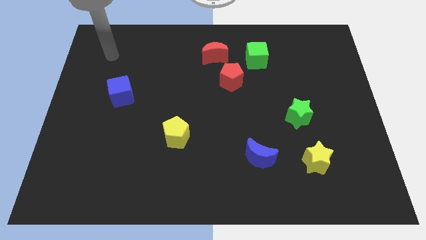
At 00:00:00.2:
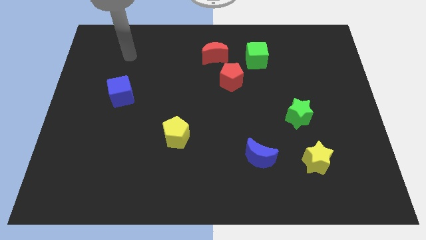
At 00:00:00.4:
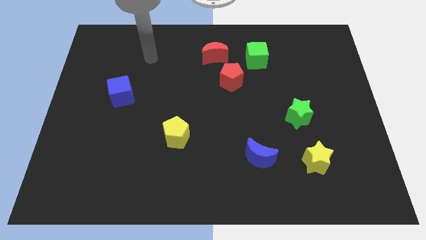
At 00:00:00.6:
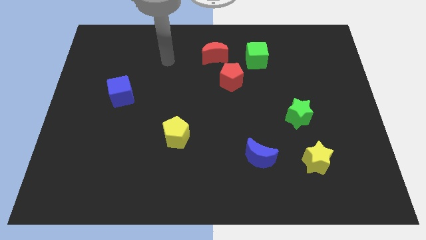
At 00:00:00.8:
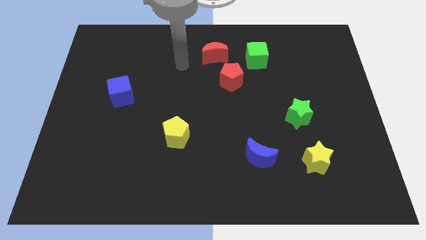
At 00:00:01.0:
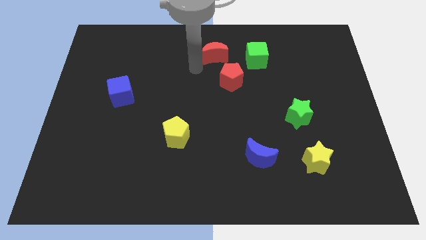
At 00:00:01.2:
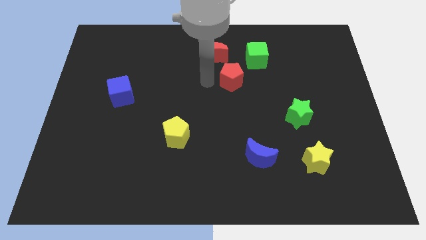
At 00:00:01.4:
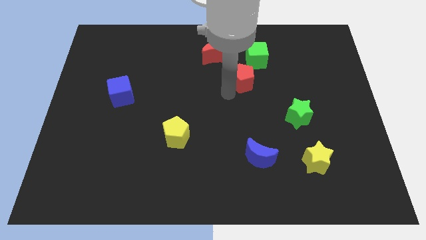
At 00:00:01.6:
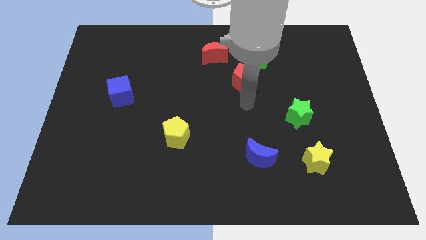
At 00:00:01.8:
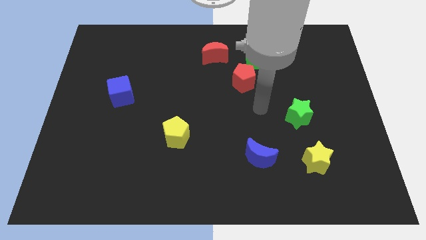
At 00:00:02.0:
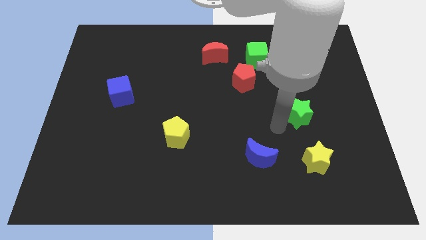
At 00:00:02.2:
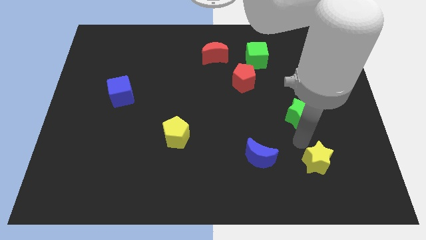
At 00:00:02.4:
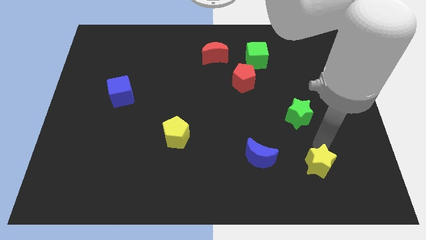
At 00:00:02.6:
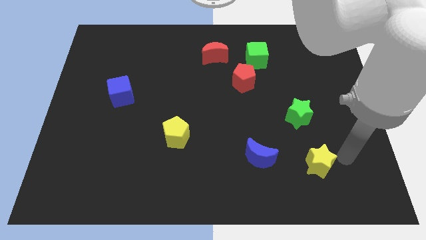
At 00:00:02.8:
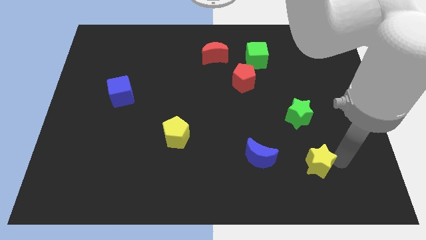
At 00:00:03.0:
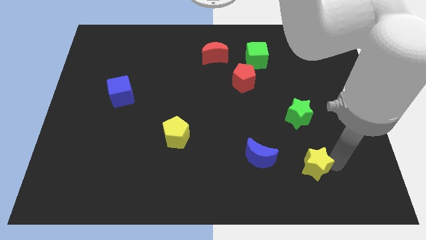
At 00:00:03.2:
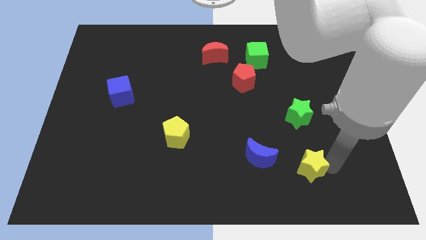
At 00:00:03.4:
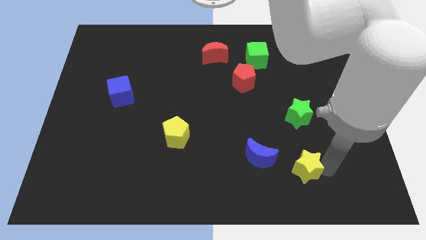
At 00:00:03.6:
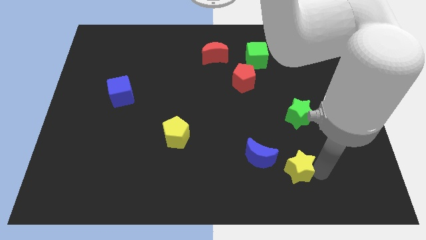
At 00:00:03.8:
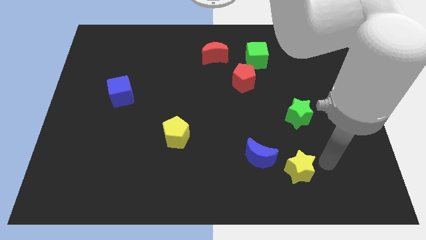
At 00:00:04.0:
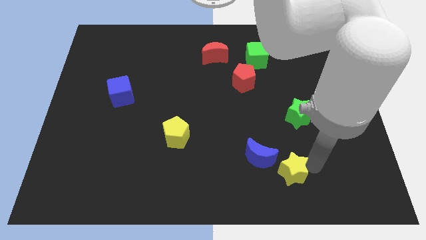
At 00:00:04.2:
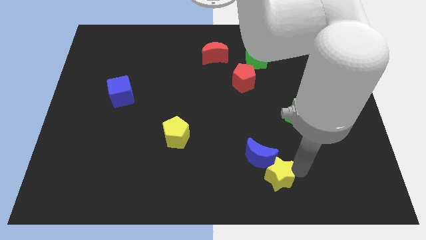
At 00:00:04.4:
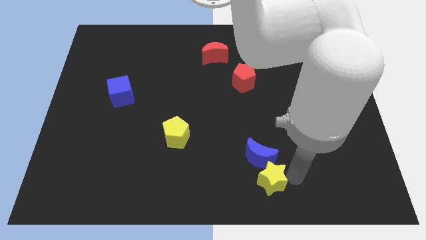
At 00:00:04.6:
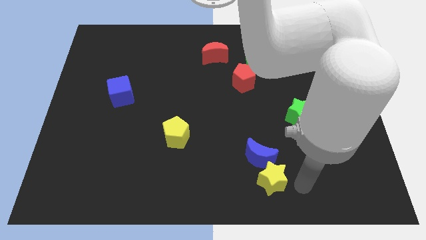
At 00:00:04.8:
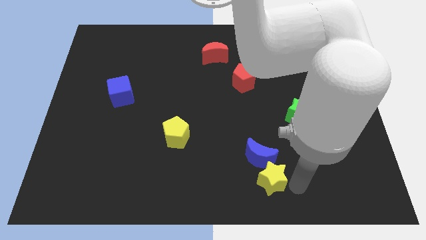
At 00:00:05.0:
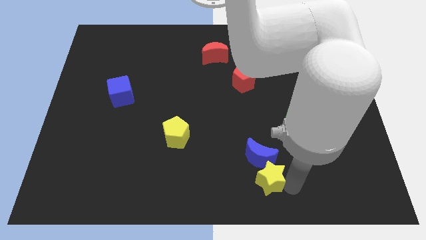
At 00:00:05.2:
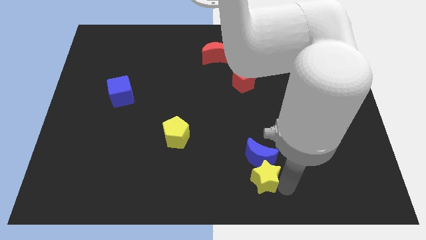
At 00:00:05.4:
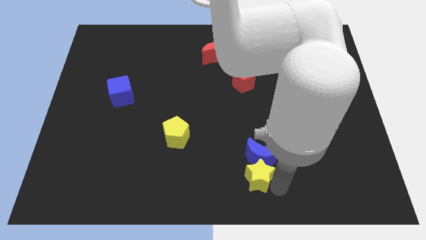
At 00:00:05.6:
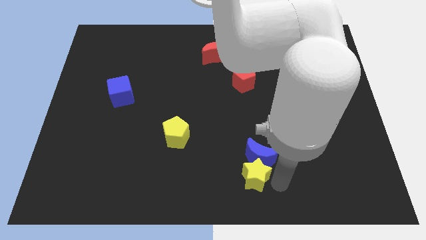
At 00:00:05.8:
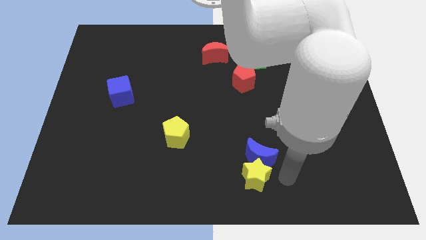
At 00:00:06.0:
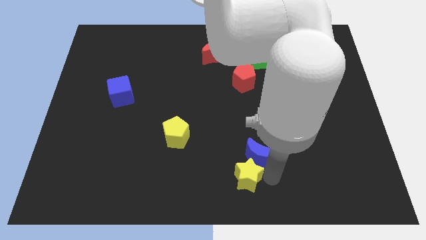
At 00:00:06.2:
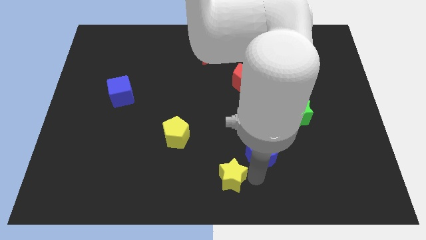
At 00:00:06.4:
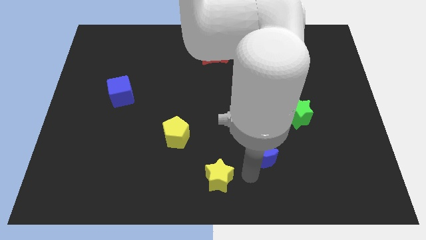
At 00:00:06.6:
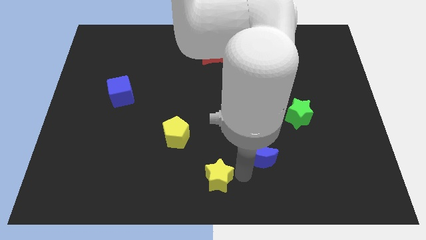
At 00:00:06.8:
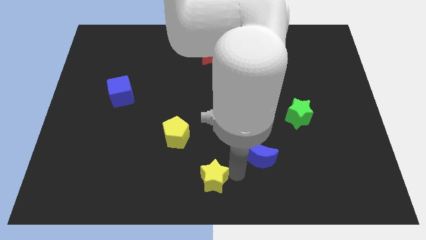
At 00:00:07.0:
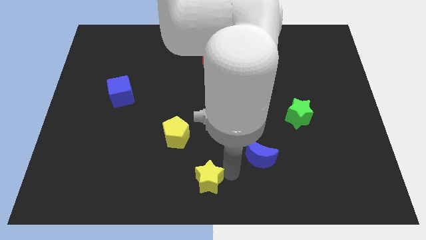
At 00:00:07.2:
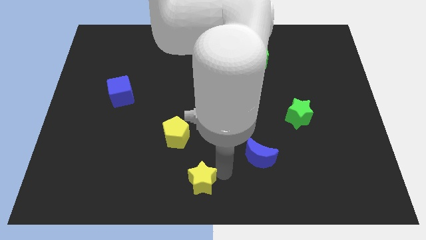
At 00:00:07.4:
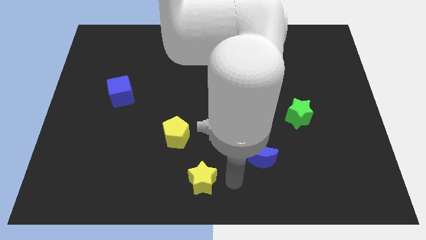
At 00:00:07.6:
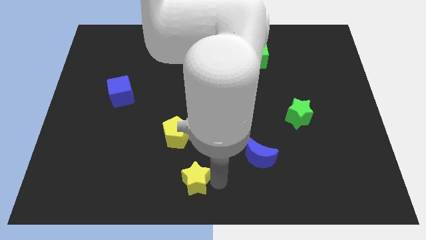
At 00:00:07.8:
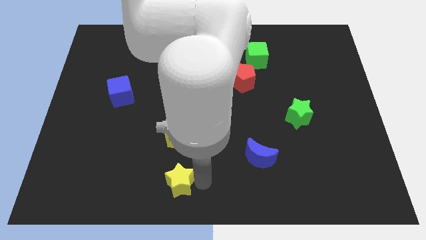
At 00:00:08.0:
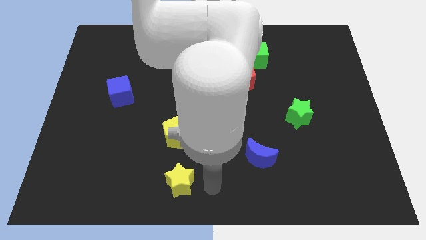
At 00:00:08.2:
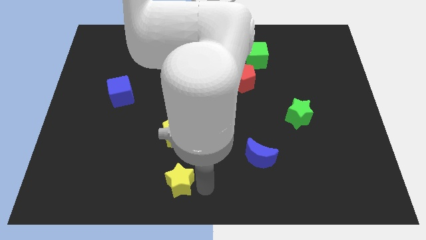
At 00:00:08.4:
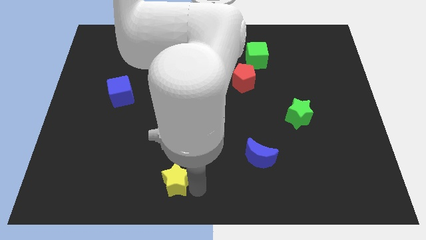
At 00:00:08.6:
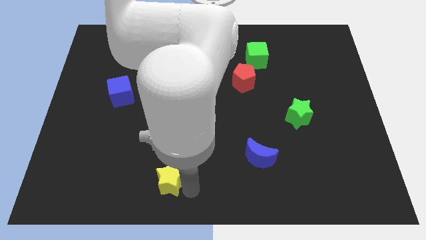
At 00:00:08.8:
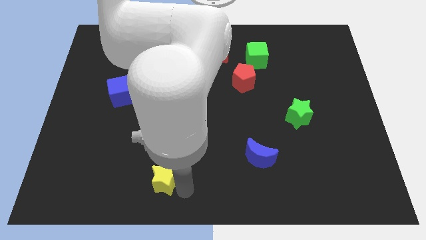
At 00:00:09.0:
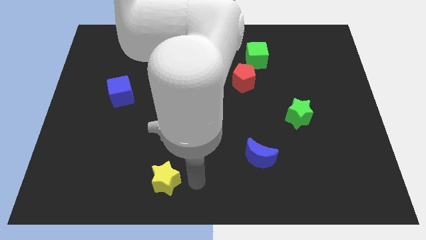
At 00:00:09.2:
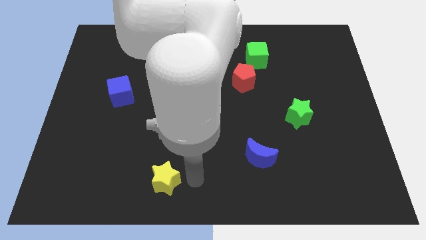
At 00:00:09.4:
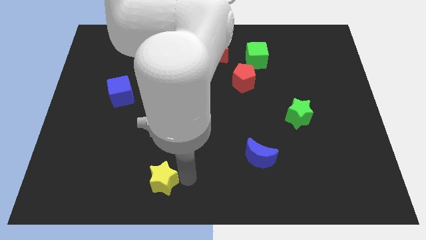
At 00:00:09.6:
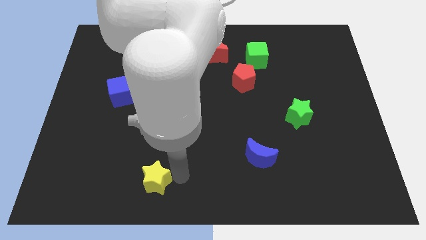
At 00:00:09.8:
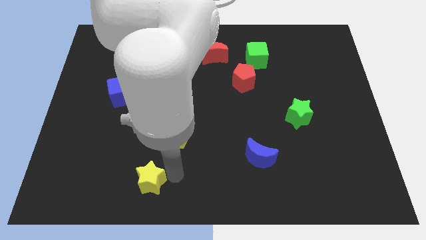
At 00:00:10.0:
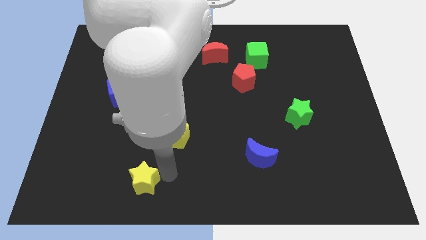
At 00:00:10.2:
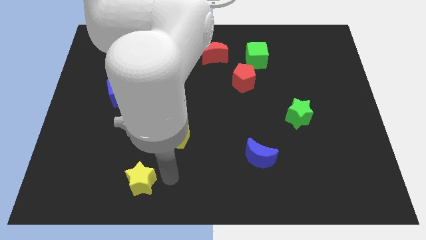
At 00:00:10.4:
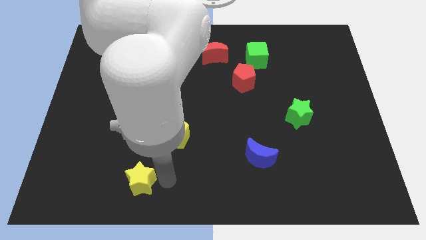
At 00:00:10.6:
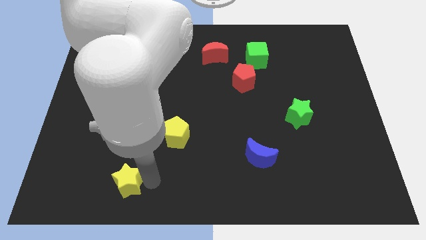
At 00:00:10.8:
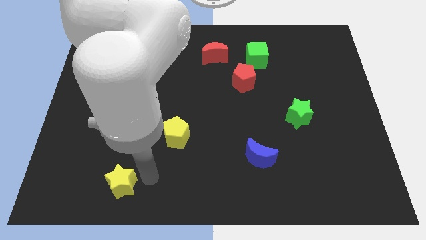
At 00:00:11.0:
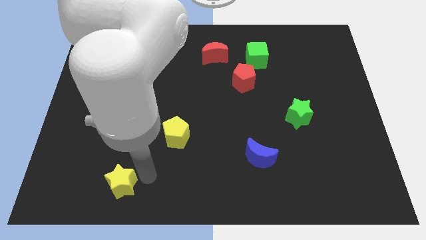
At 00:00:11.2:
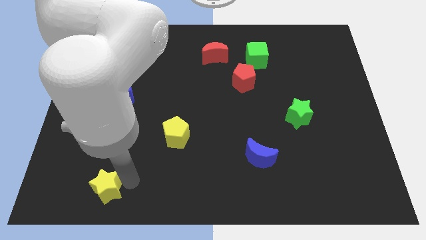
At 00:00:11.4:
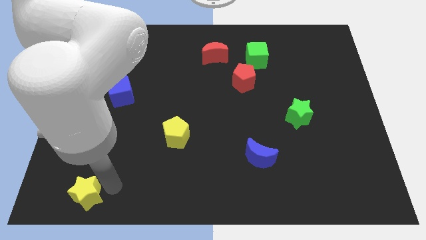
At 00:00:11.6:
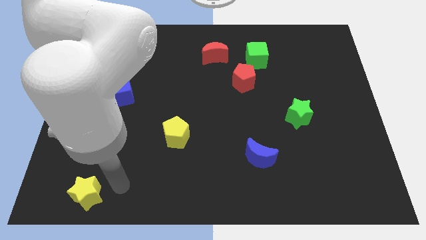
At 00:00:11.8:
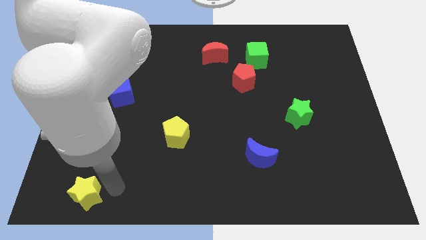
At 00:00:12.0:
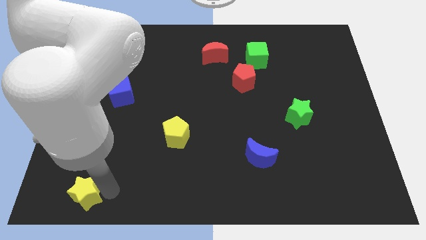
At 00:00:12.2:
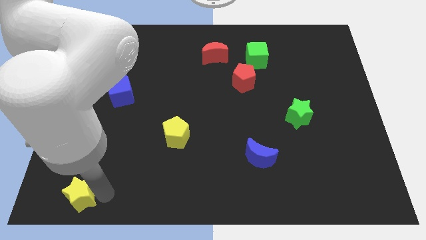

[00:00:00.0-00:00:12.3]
push the yellow star to the bottom left

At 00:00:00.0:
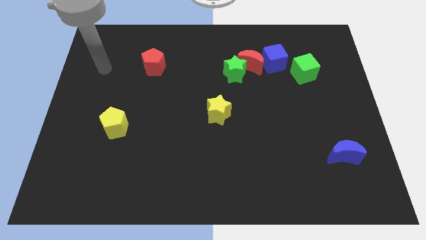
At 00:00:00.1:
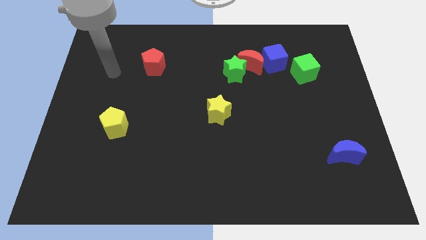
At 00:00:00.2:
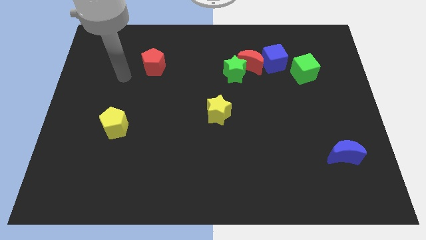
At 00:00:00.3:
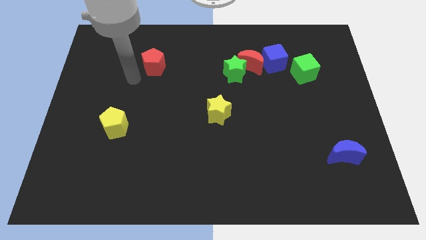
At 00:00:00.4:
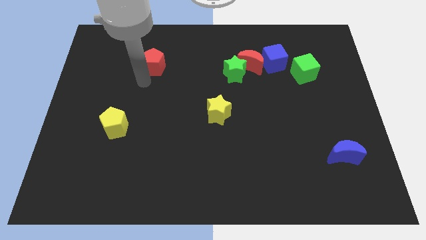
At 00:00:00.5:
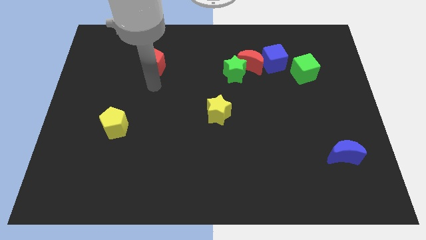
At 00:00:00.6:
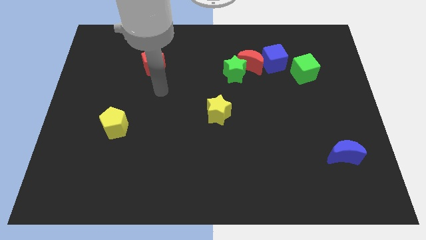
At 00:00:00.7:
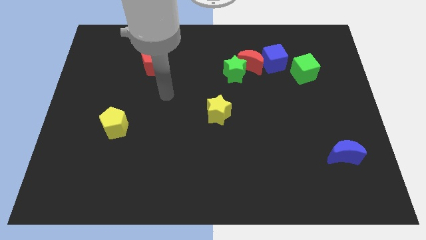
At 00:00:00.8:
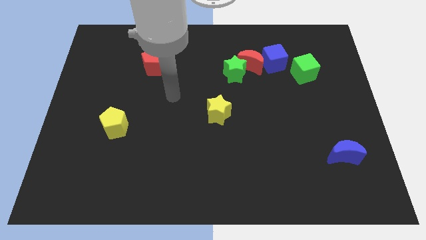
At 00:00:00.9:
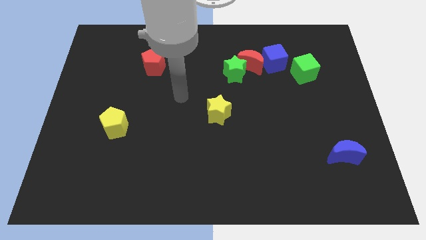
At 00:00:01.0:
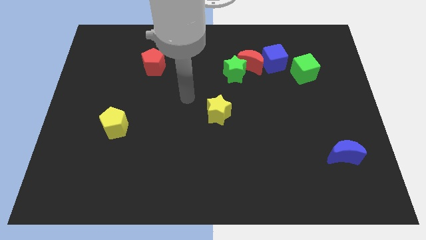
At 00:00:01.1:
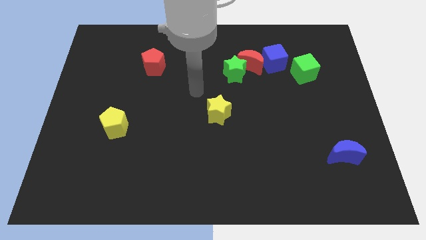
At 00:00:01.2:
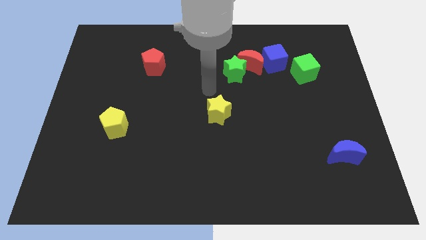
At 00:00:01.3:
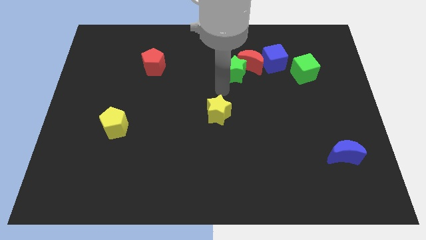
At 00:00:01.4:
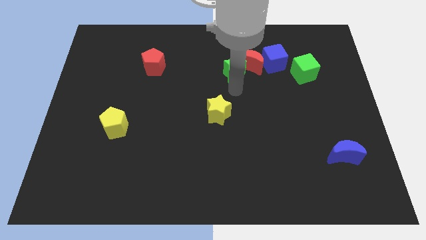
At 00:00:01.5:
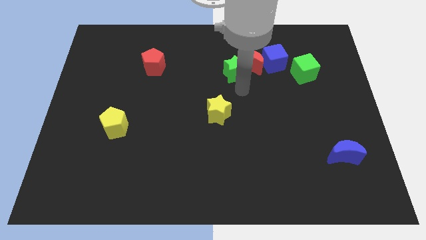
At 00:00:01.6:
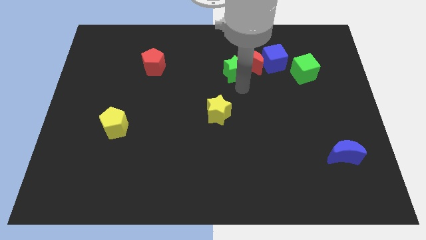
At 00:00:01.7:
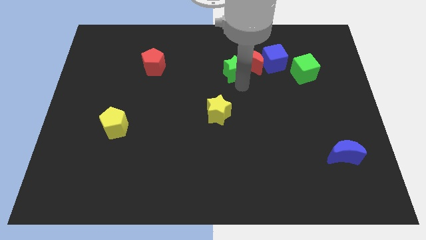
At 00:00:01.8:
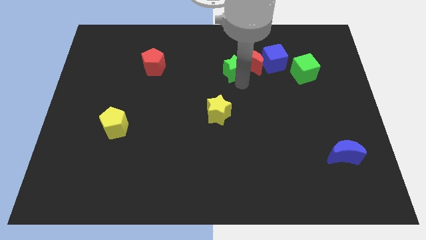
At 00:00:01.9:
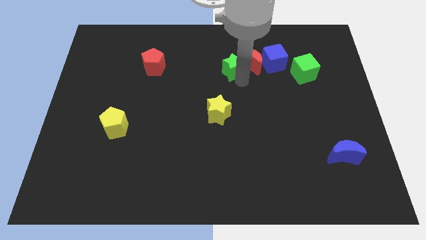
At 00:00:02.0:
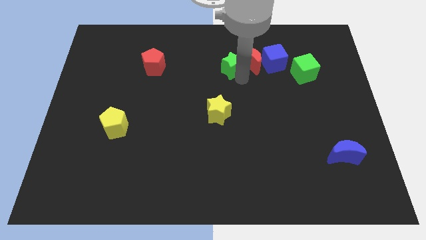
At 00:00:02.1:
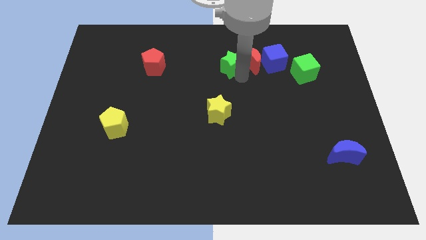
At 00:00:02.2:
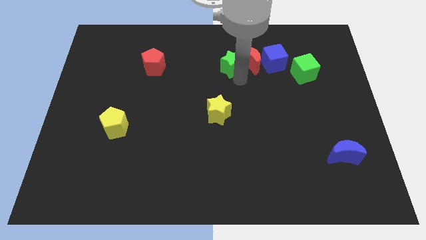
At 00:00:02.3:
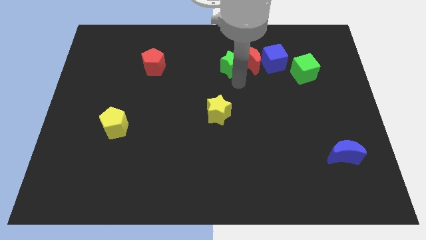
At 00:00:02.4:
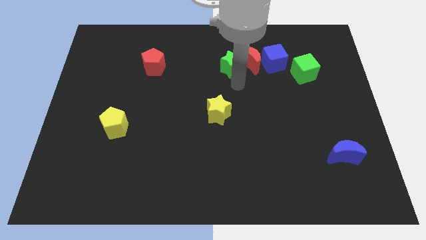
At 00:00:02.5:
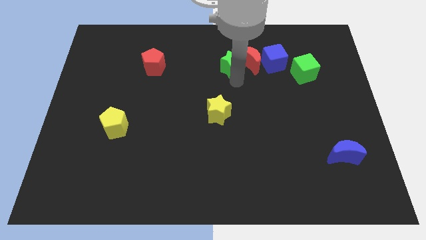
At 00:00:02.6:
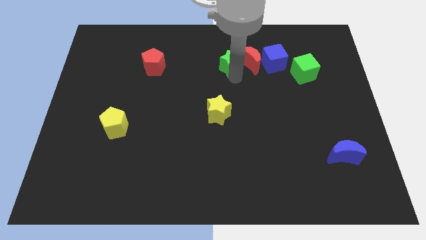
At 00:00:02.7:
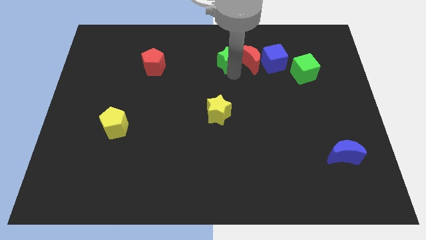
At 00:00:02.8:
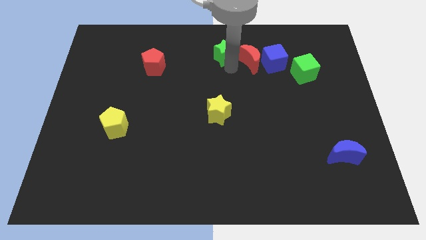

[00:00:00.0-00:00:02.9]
move the green star to the top
